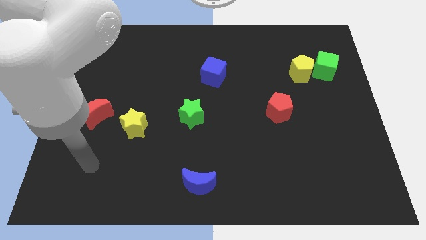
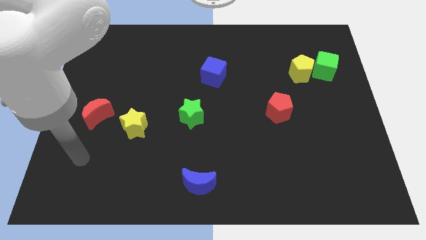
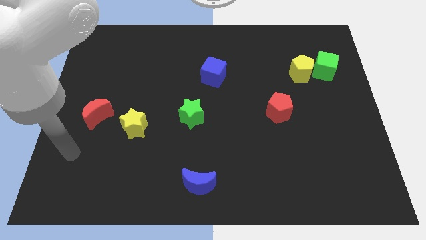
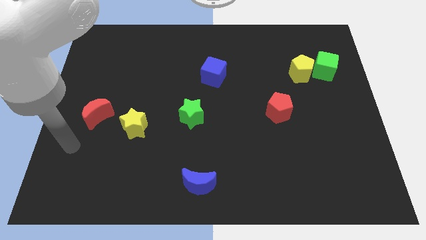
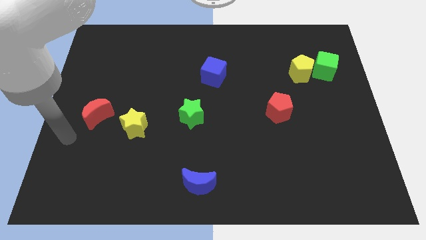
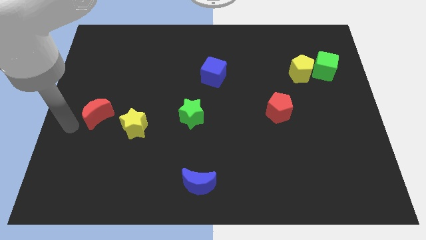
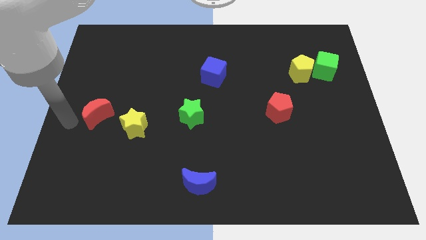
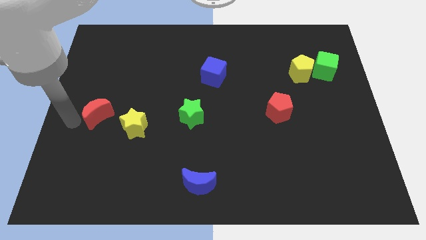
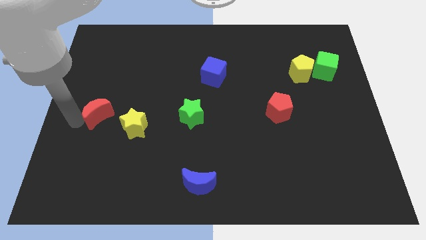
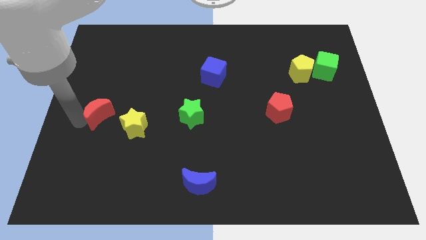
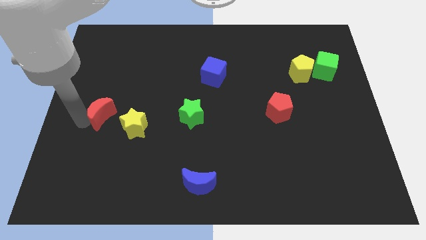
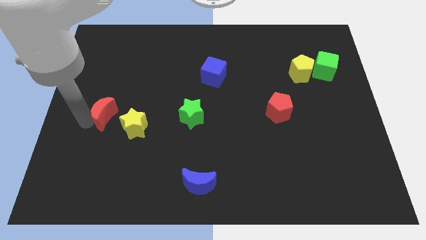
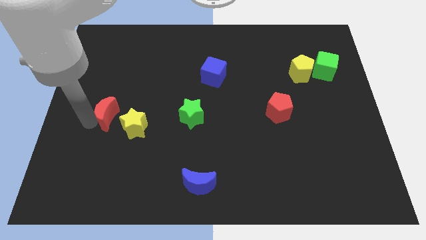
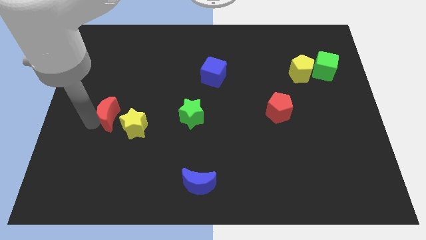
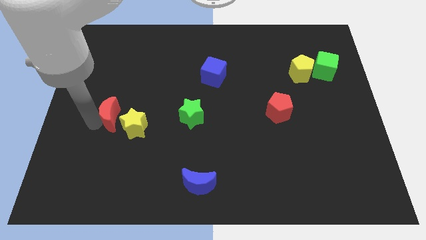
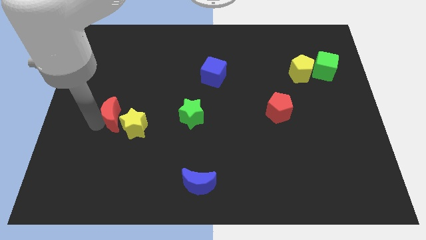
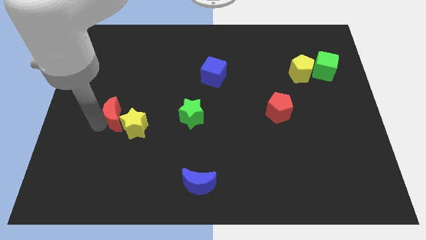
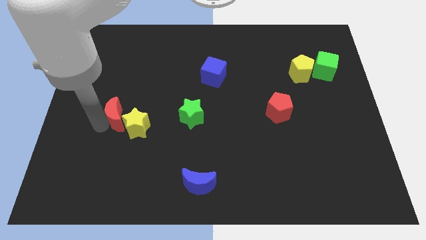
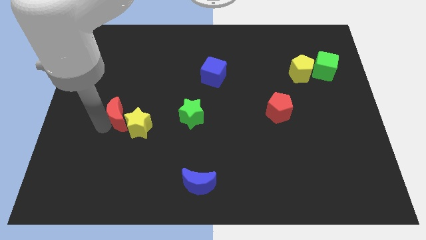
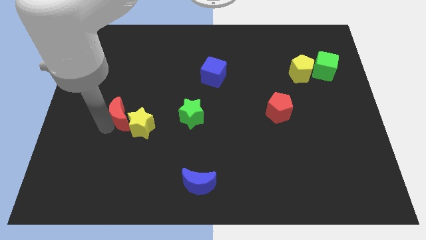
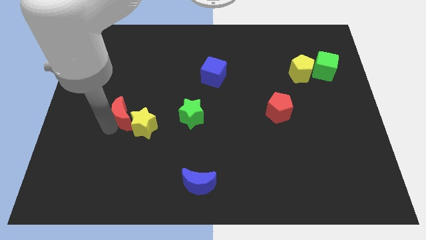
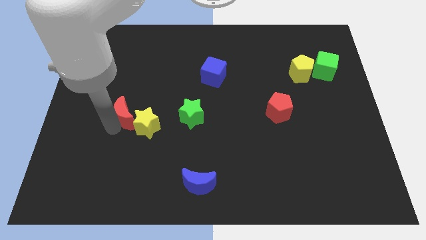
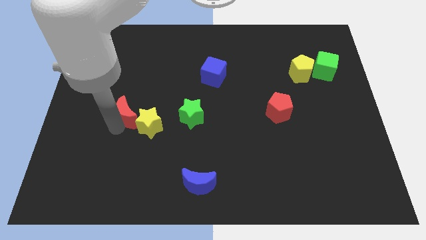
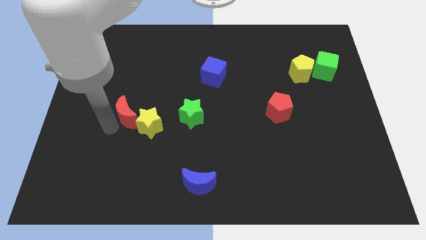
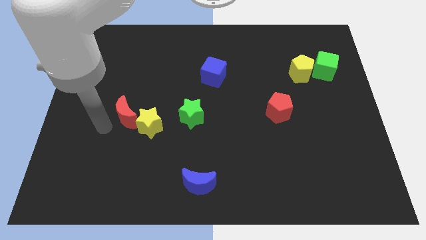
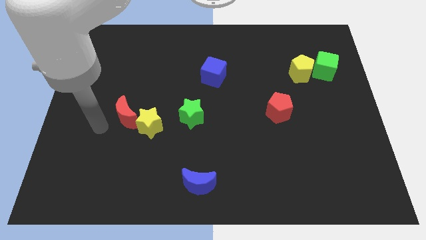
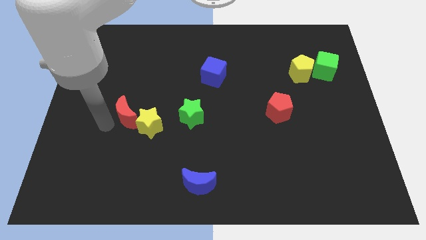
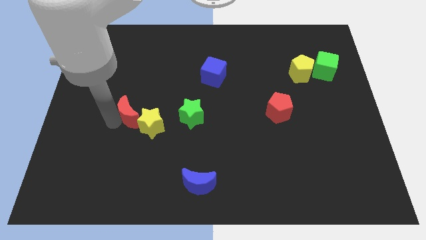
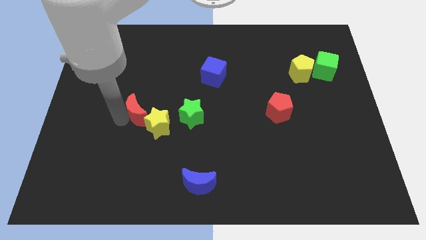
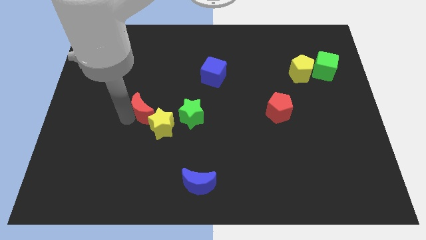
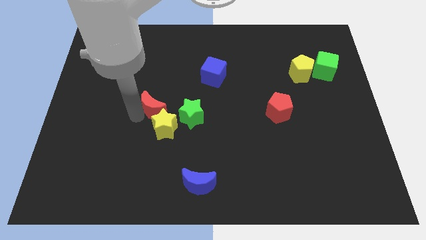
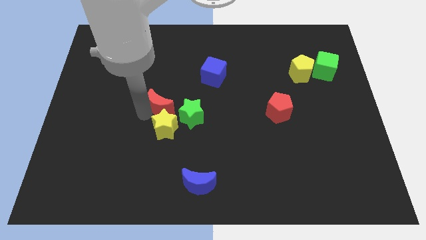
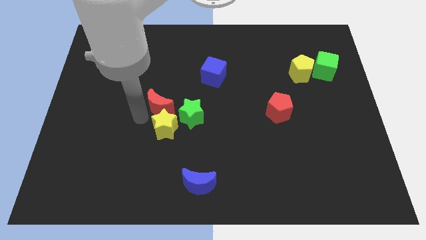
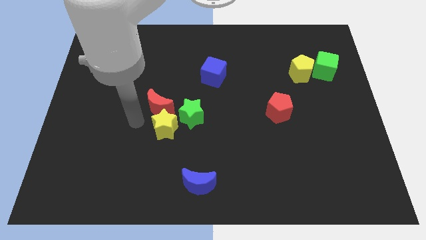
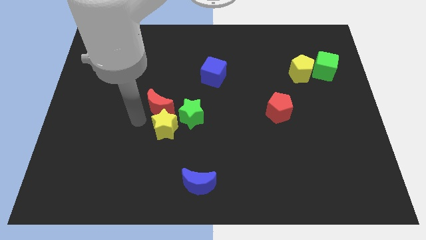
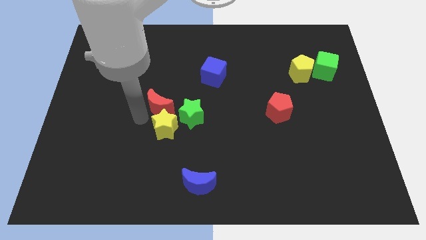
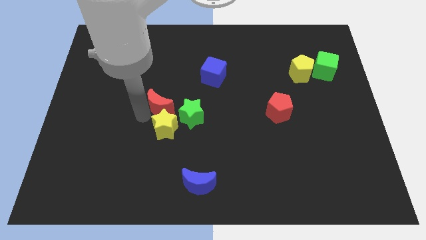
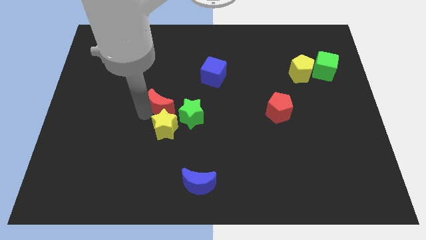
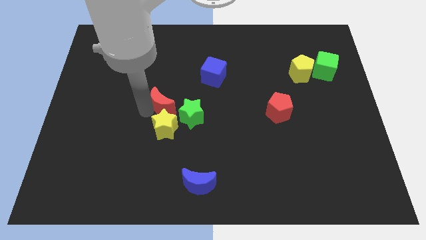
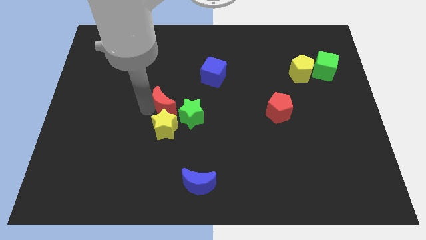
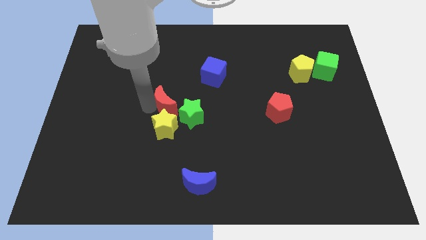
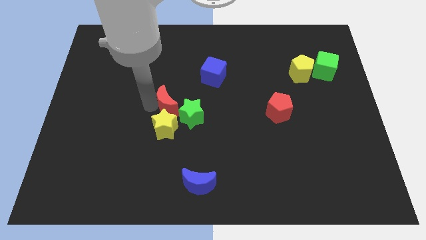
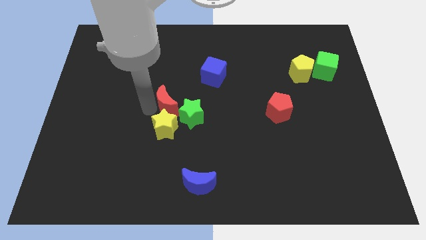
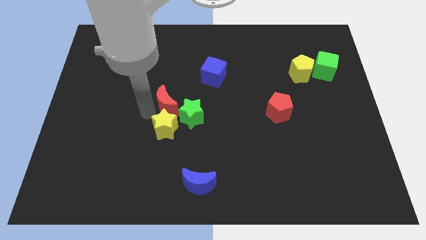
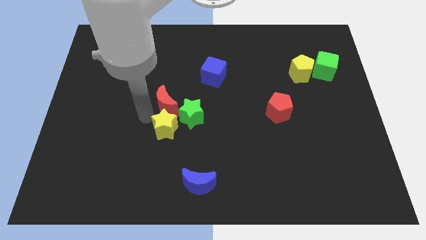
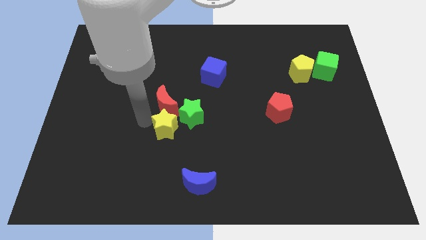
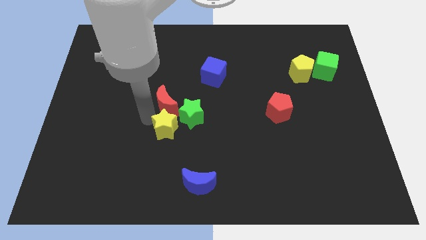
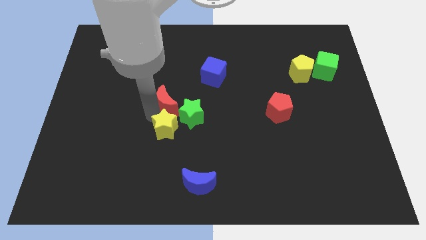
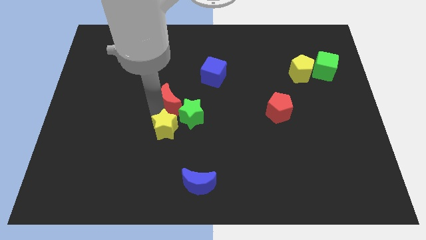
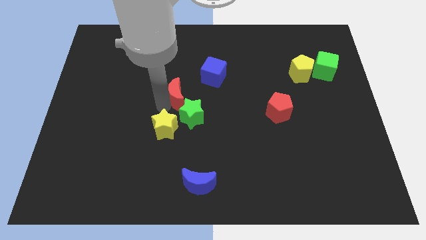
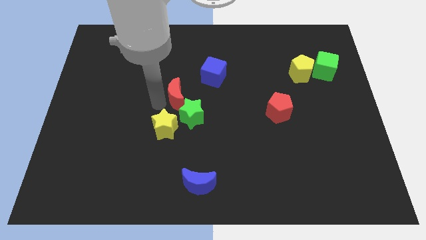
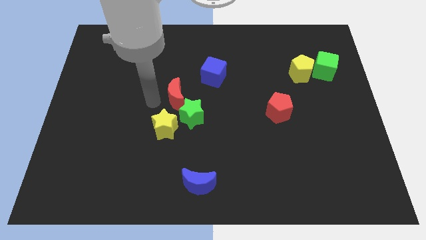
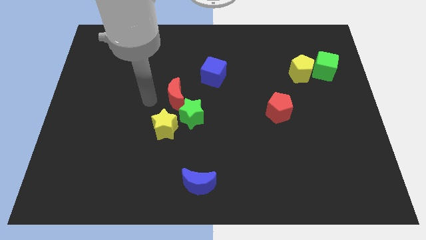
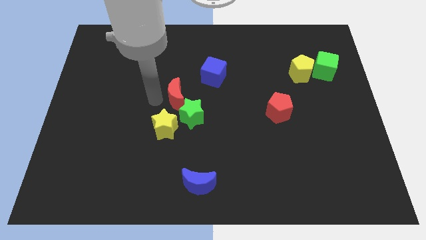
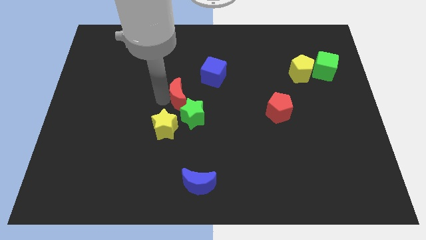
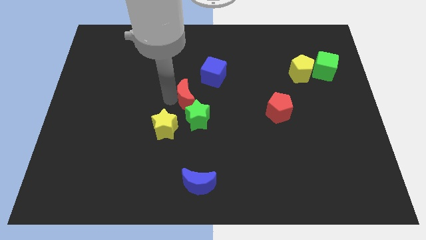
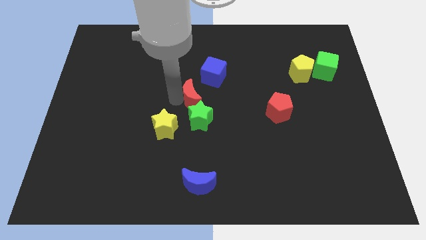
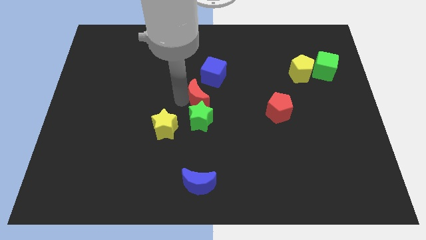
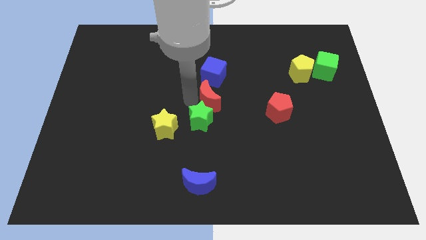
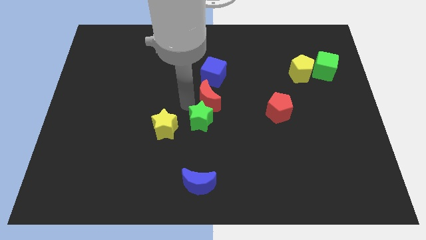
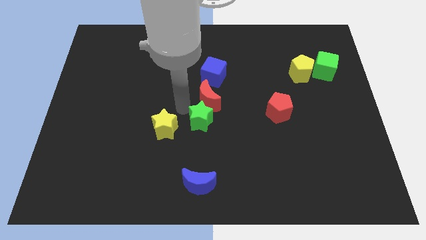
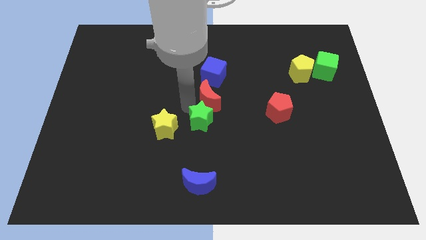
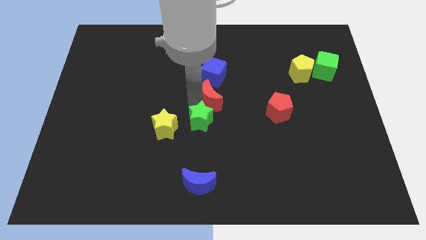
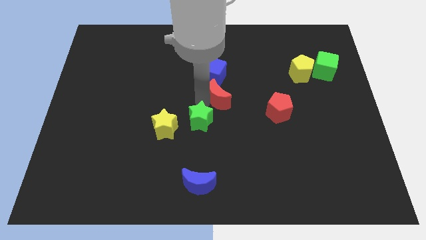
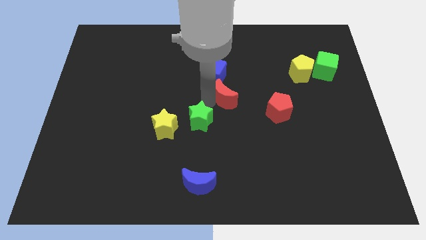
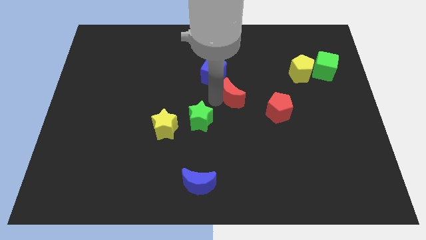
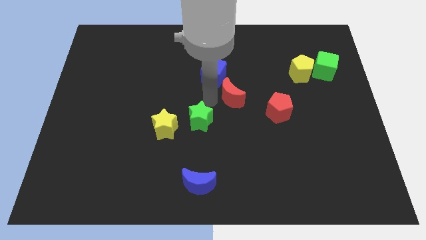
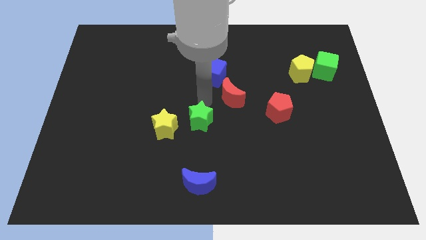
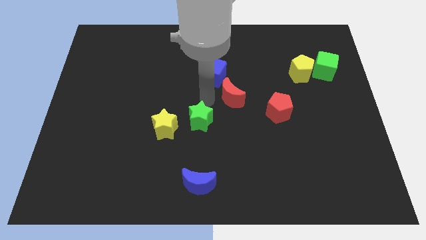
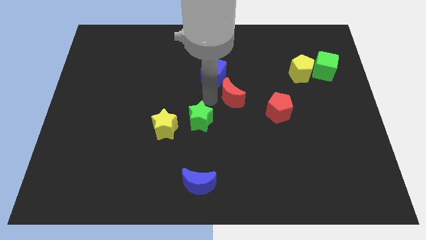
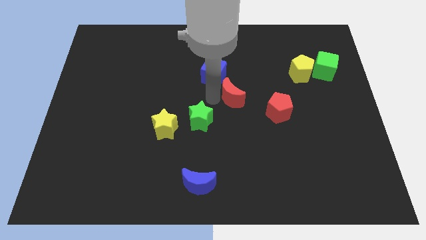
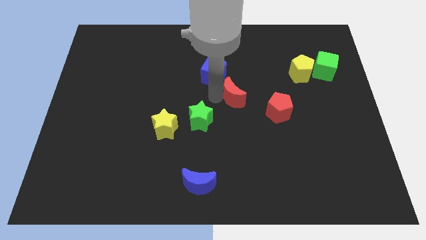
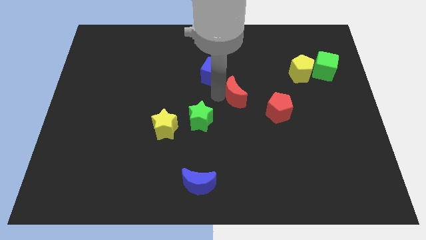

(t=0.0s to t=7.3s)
push the red moon to the top left side of the red pentagon
